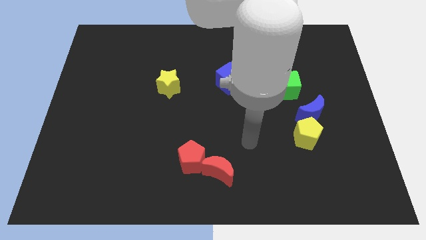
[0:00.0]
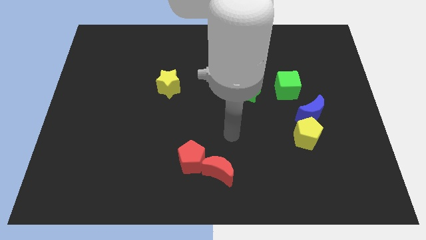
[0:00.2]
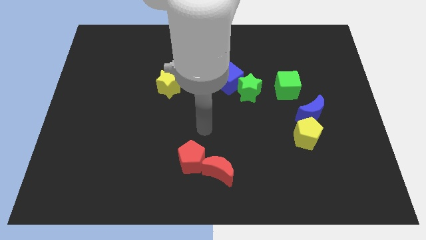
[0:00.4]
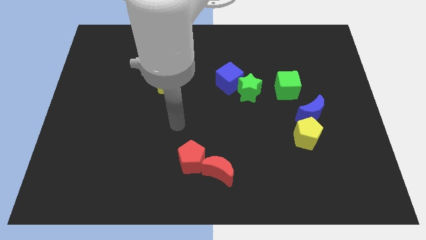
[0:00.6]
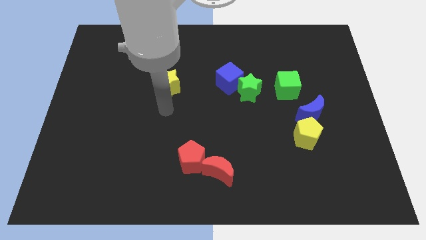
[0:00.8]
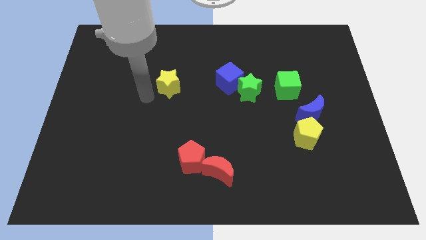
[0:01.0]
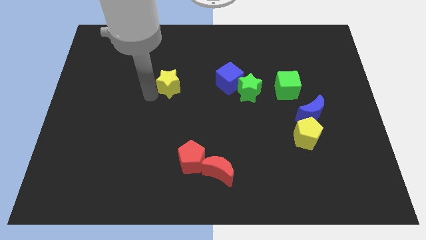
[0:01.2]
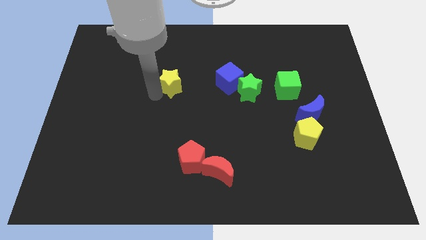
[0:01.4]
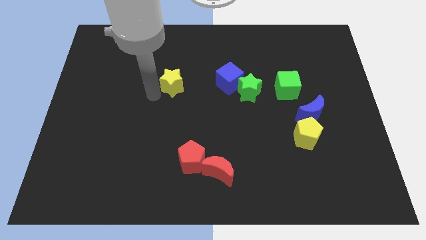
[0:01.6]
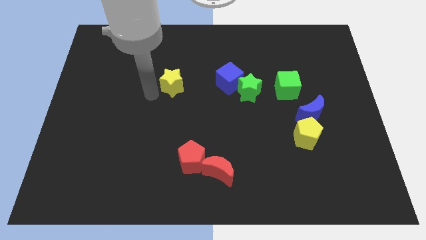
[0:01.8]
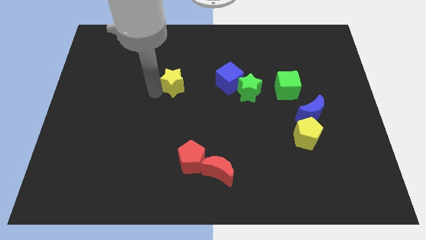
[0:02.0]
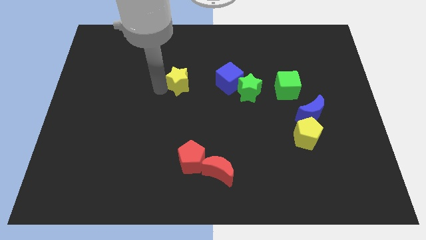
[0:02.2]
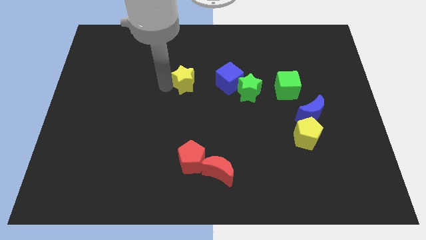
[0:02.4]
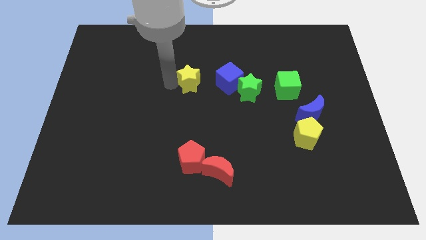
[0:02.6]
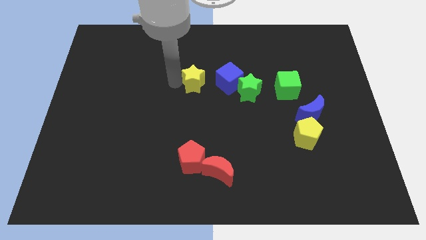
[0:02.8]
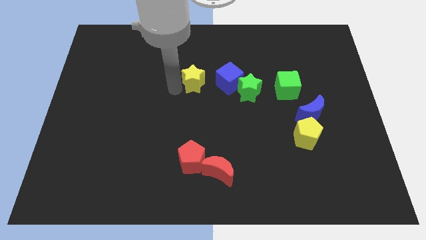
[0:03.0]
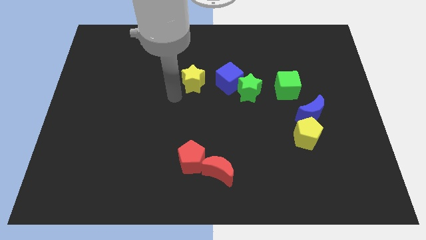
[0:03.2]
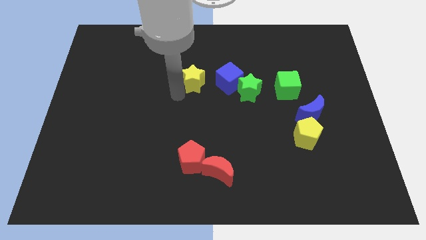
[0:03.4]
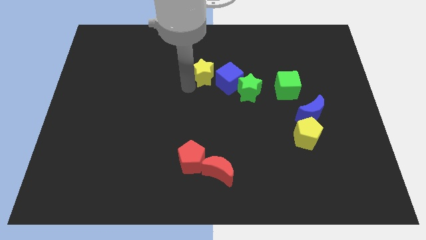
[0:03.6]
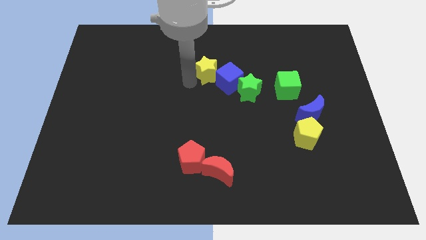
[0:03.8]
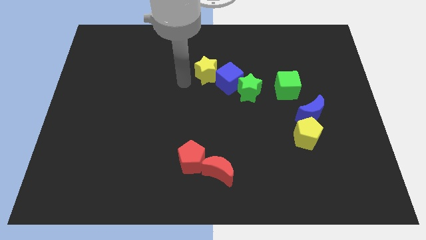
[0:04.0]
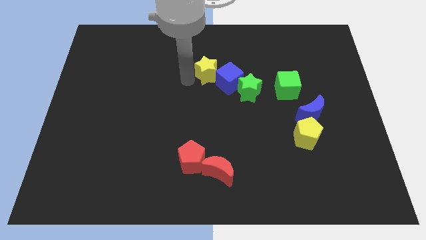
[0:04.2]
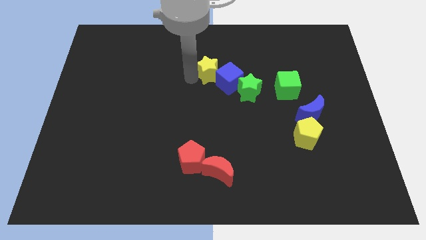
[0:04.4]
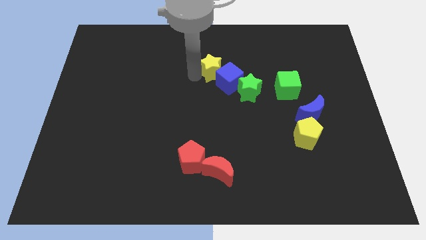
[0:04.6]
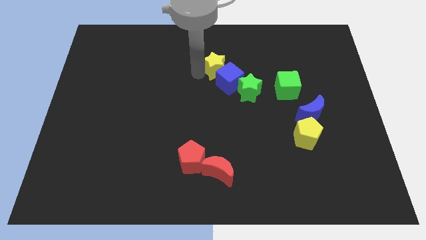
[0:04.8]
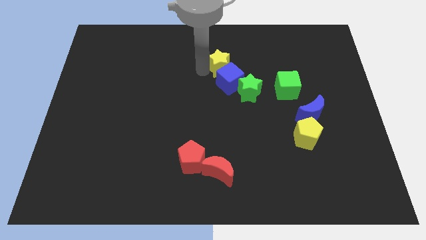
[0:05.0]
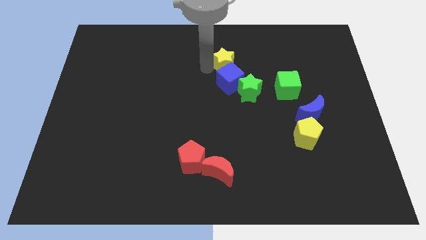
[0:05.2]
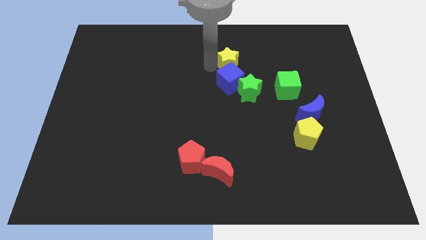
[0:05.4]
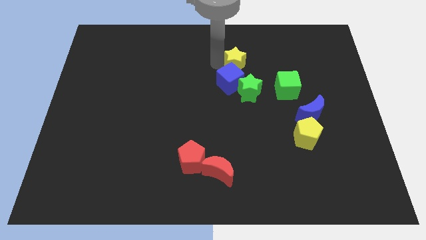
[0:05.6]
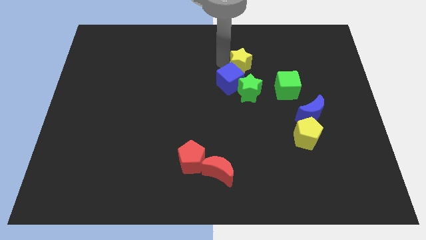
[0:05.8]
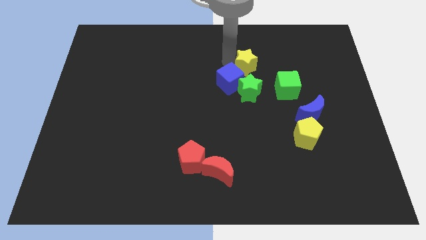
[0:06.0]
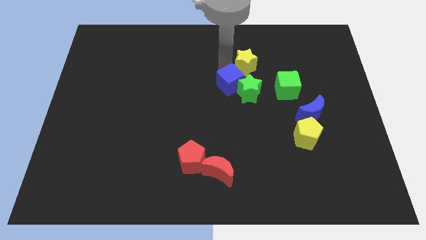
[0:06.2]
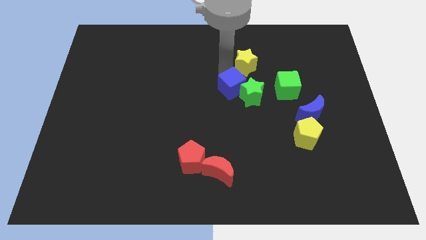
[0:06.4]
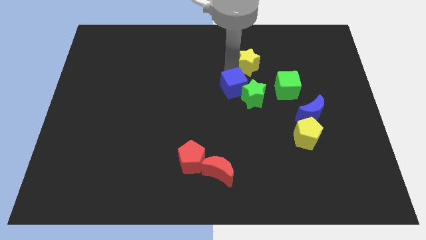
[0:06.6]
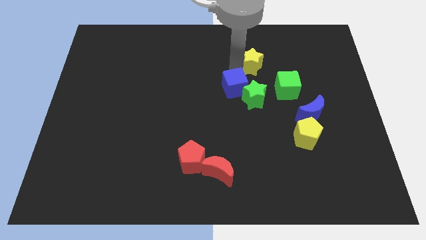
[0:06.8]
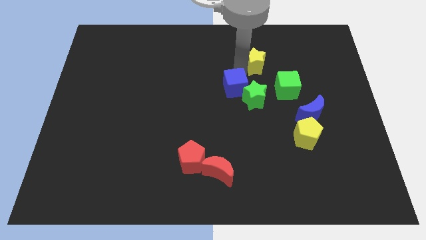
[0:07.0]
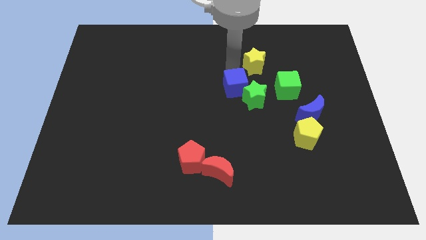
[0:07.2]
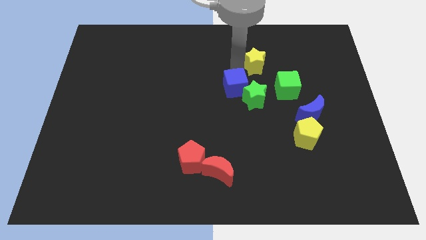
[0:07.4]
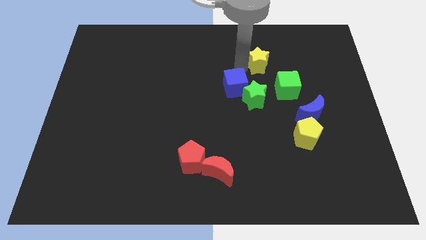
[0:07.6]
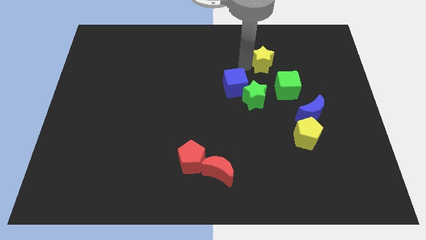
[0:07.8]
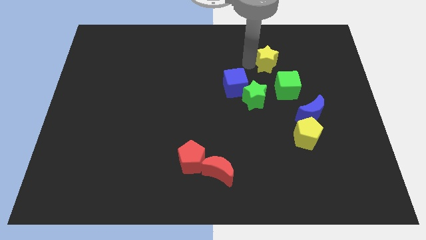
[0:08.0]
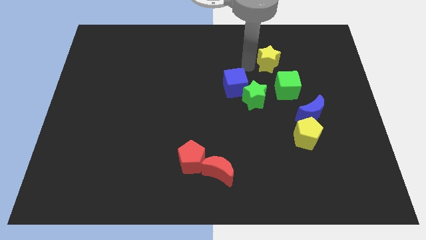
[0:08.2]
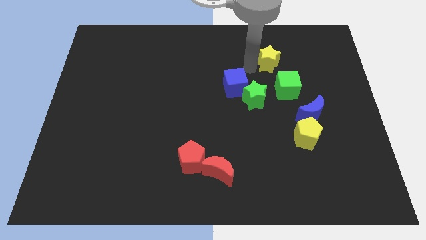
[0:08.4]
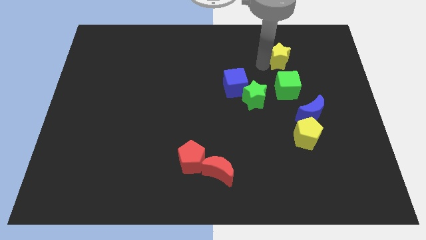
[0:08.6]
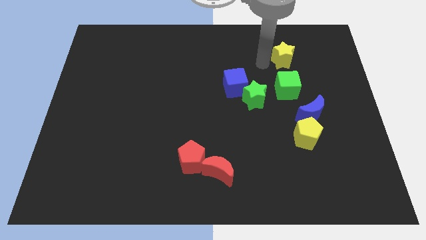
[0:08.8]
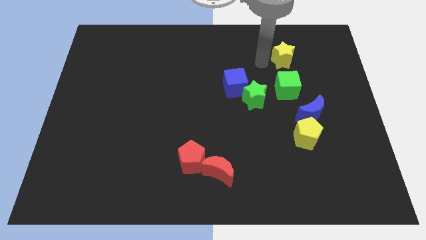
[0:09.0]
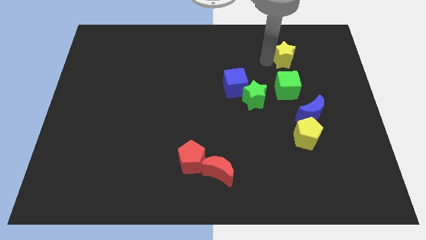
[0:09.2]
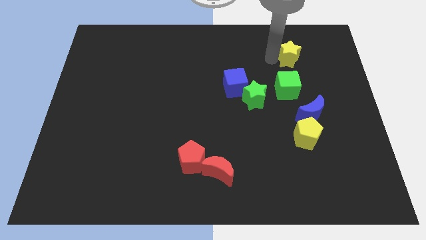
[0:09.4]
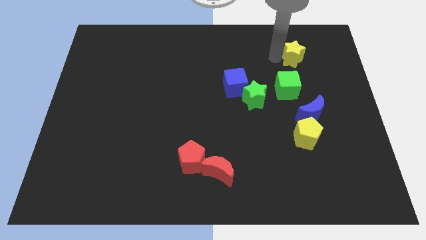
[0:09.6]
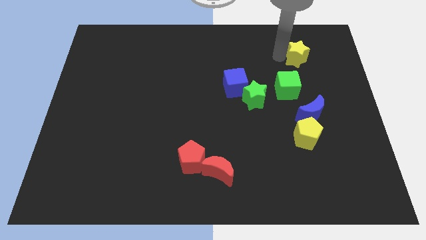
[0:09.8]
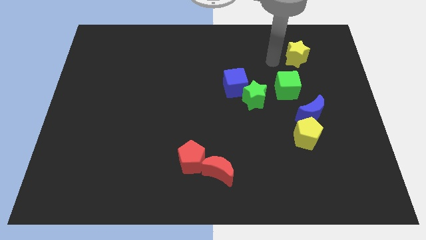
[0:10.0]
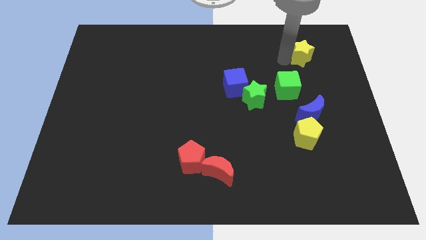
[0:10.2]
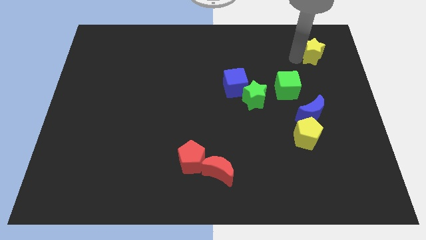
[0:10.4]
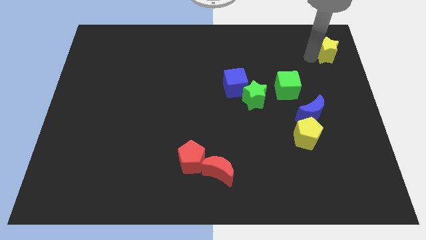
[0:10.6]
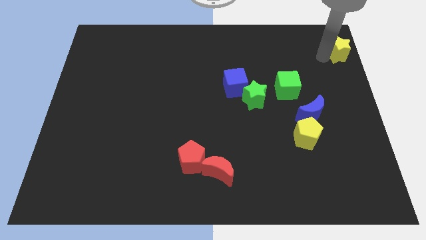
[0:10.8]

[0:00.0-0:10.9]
slide the yellow star to the top right corner

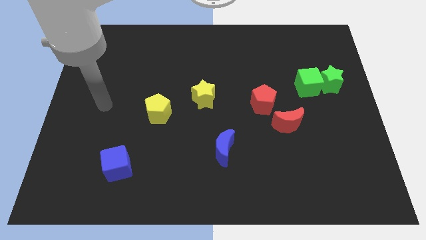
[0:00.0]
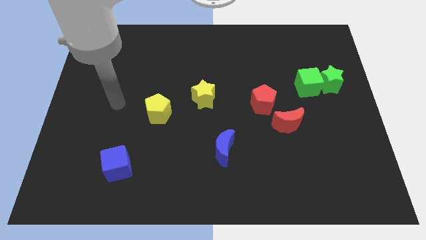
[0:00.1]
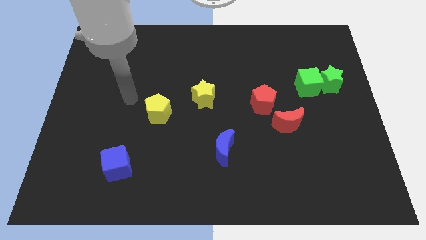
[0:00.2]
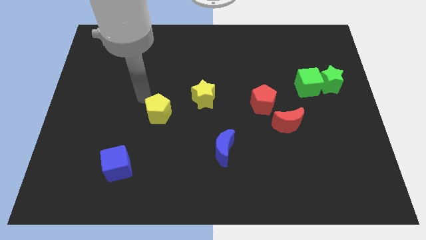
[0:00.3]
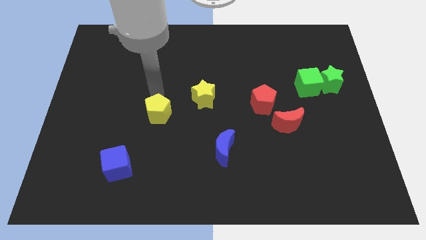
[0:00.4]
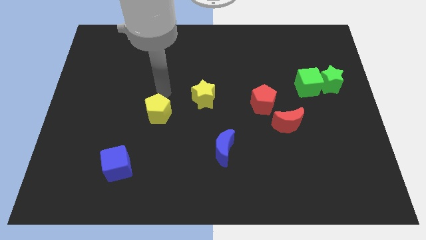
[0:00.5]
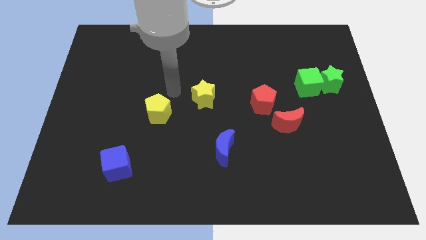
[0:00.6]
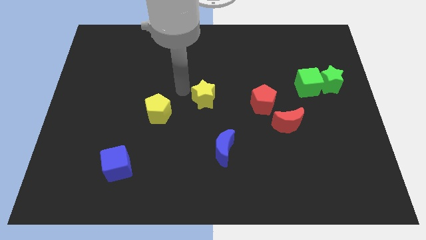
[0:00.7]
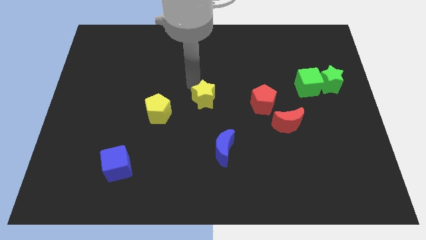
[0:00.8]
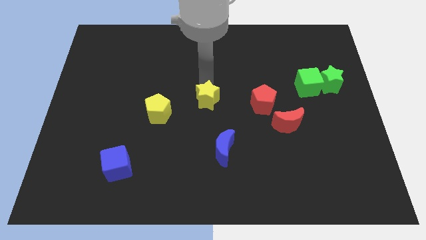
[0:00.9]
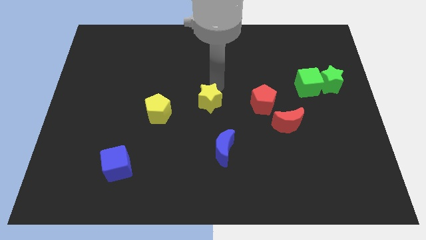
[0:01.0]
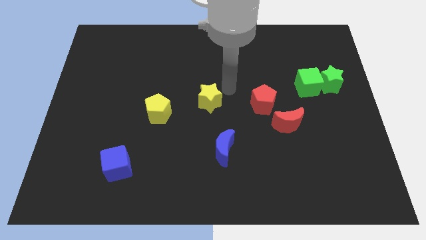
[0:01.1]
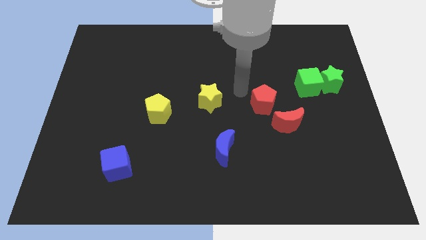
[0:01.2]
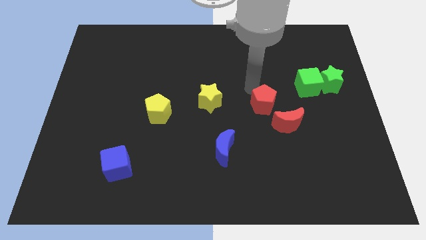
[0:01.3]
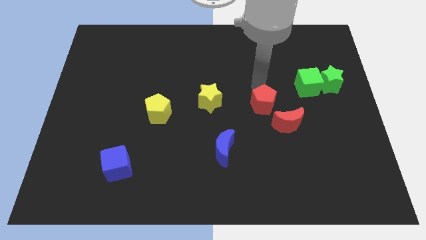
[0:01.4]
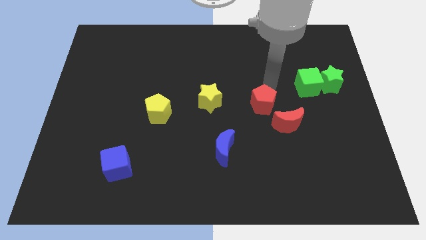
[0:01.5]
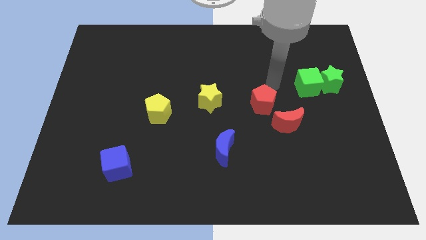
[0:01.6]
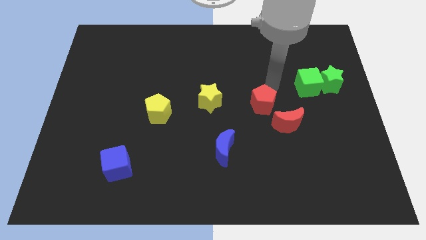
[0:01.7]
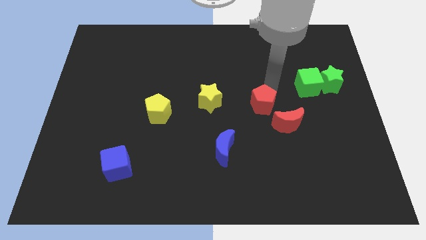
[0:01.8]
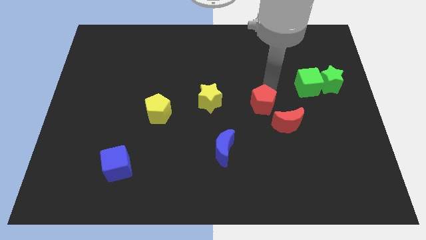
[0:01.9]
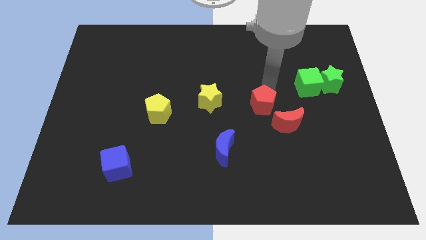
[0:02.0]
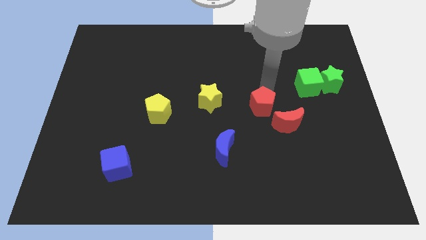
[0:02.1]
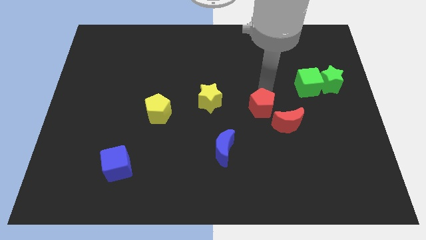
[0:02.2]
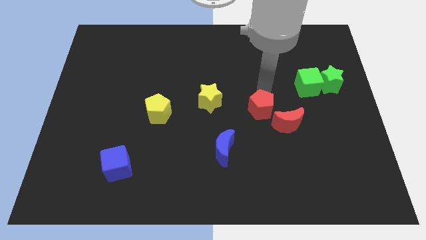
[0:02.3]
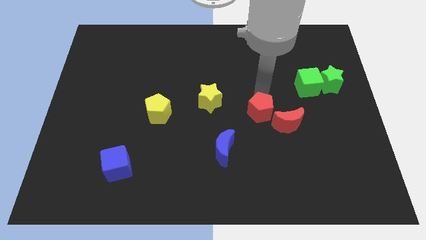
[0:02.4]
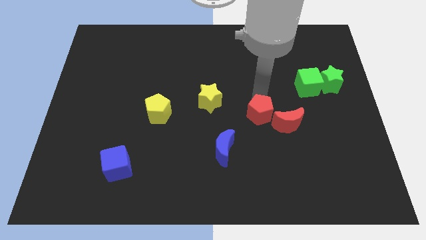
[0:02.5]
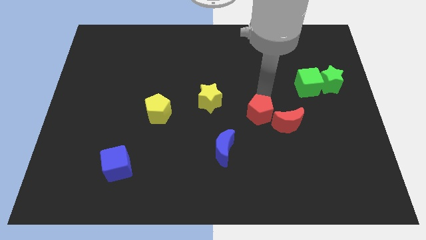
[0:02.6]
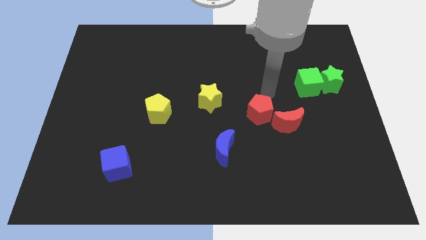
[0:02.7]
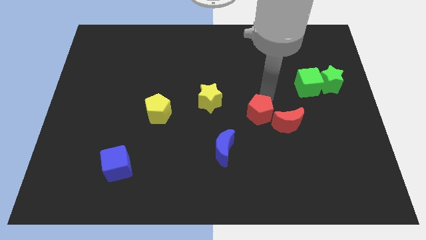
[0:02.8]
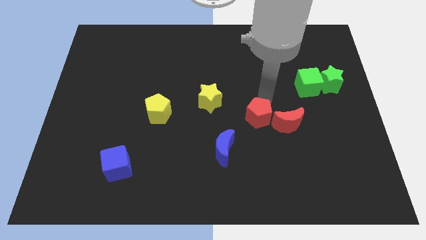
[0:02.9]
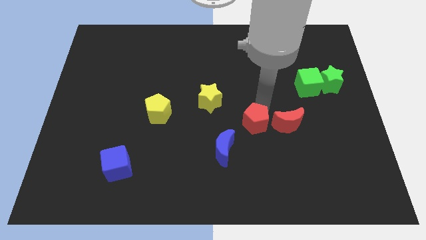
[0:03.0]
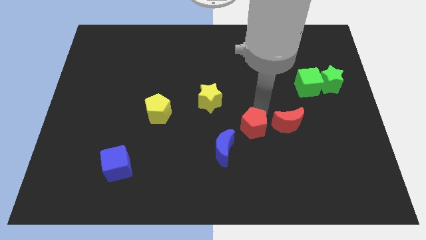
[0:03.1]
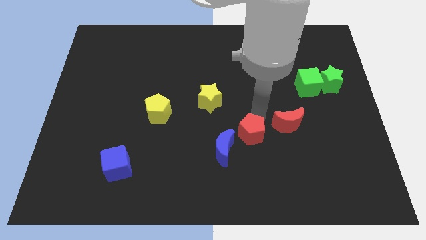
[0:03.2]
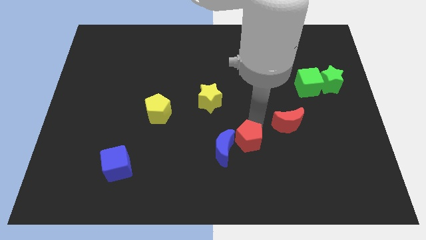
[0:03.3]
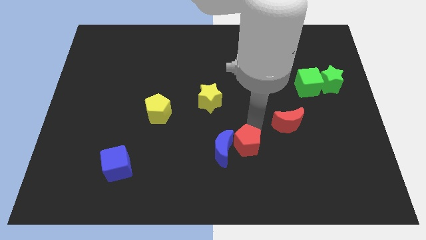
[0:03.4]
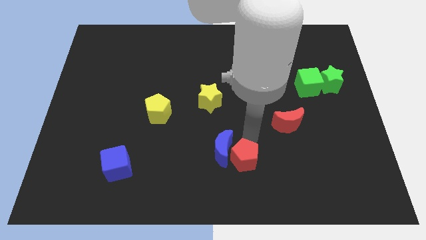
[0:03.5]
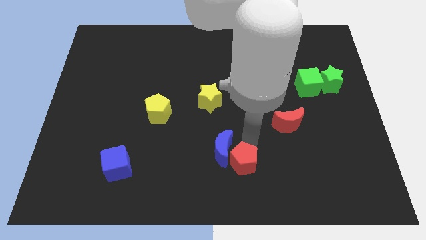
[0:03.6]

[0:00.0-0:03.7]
push the red pentagon to the bottom side
